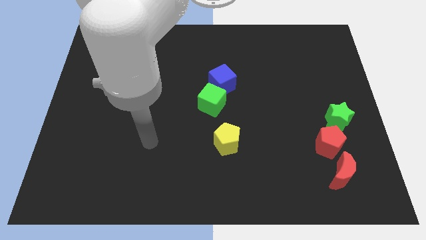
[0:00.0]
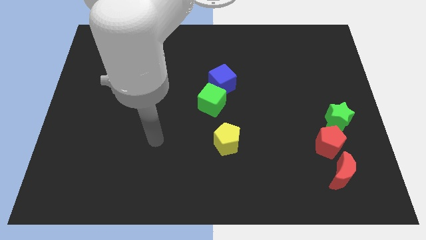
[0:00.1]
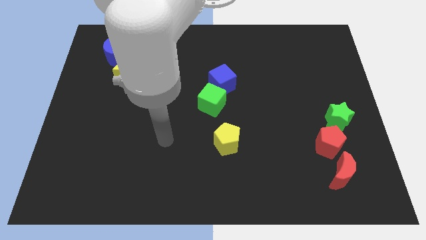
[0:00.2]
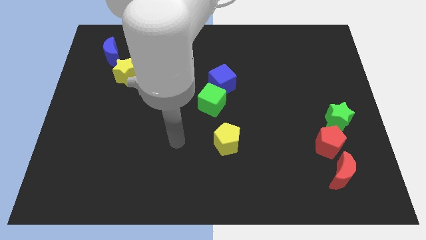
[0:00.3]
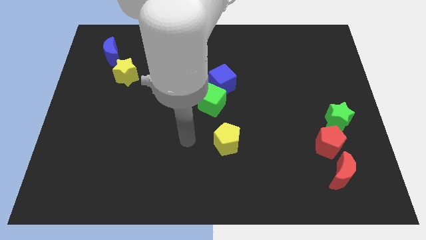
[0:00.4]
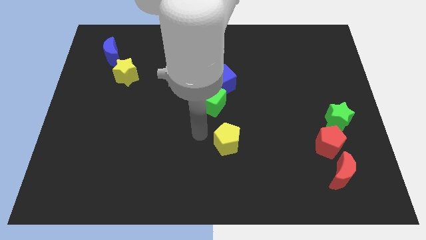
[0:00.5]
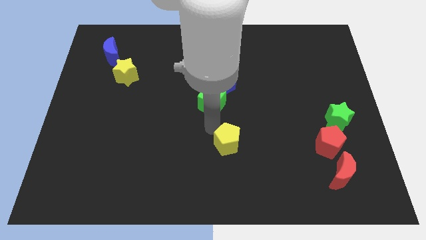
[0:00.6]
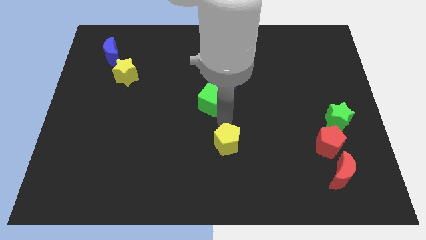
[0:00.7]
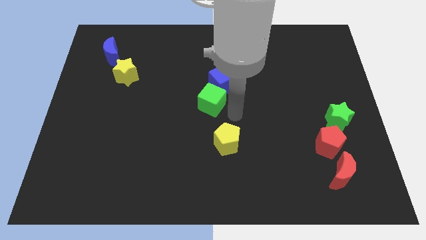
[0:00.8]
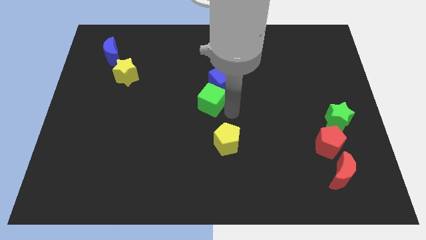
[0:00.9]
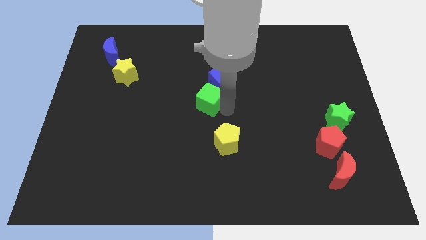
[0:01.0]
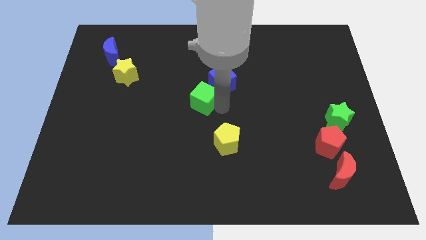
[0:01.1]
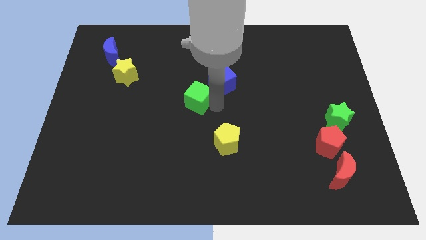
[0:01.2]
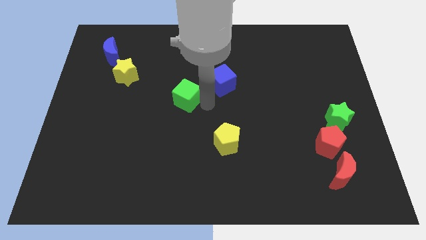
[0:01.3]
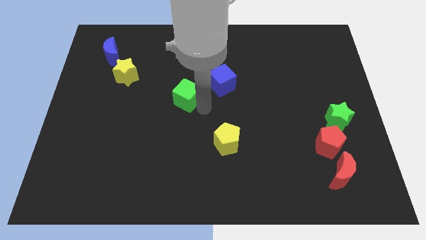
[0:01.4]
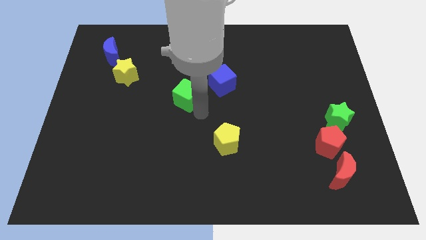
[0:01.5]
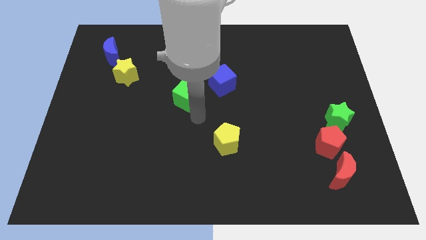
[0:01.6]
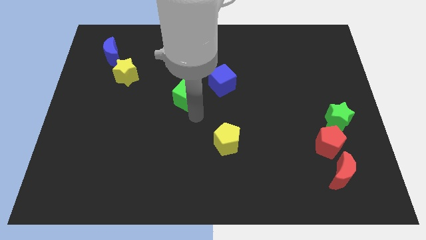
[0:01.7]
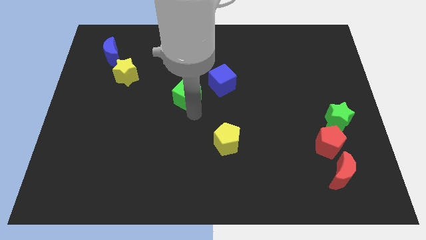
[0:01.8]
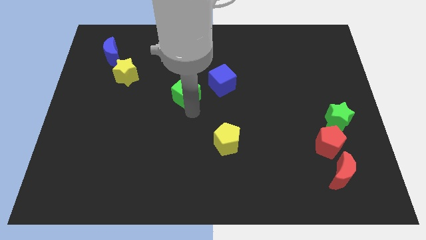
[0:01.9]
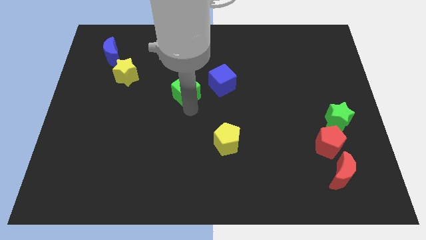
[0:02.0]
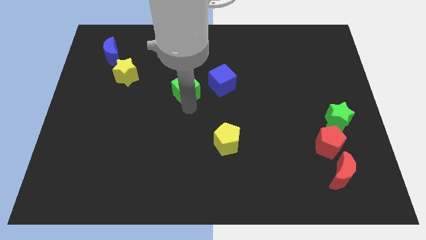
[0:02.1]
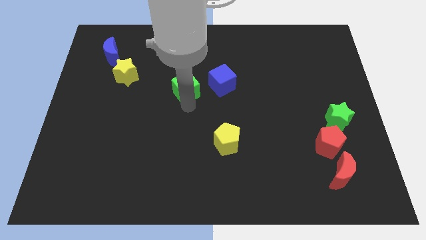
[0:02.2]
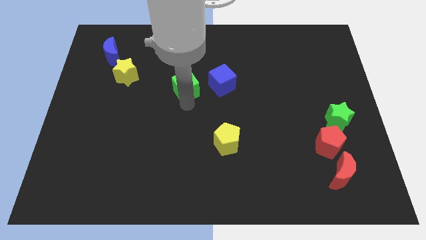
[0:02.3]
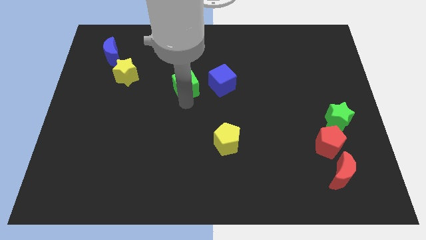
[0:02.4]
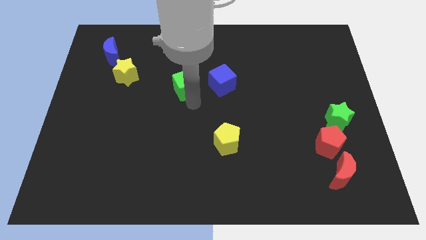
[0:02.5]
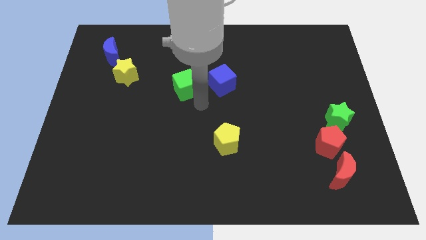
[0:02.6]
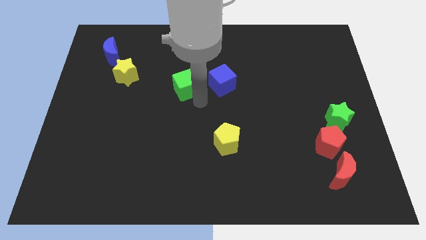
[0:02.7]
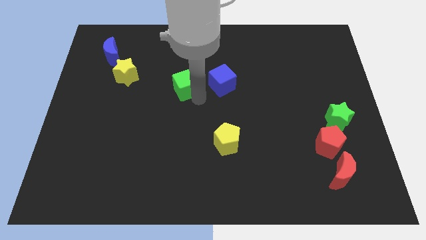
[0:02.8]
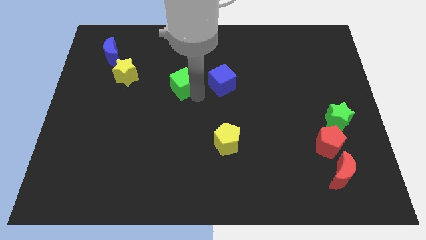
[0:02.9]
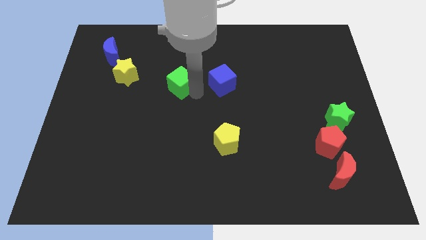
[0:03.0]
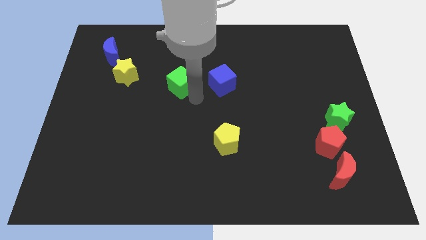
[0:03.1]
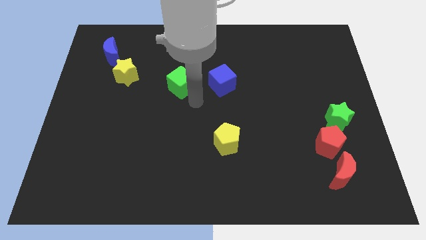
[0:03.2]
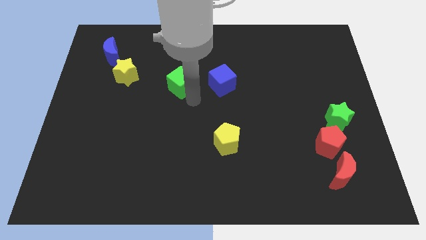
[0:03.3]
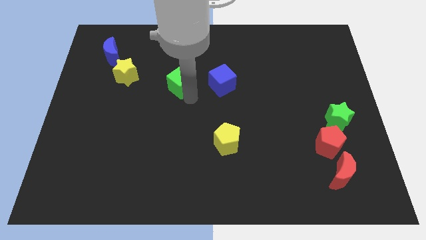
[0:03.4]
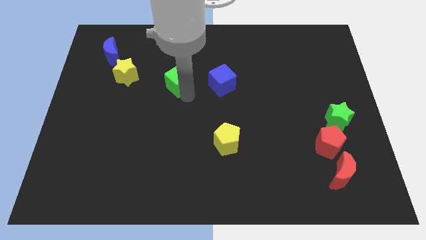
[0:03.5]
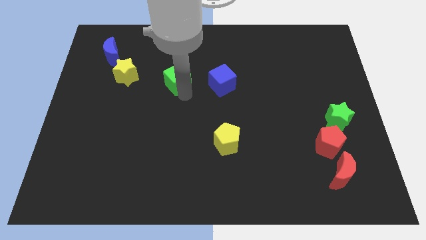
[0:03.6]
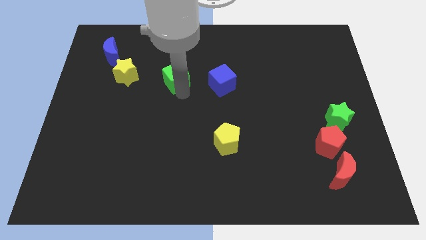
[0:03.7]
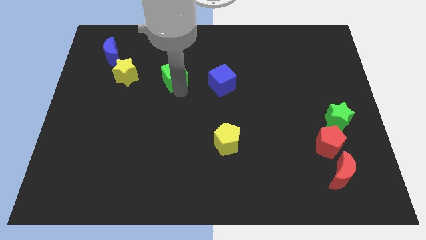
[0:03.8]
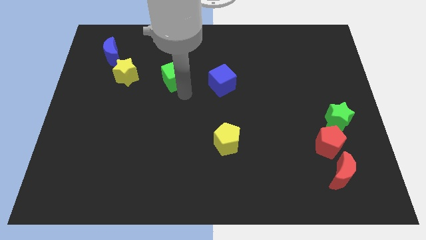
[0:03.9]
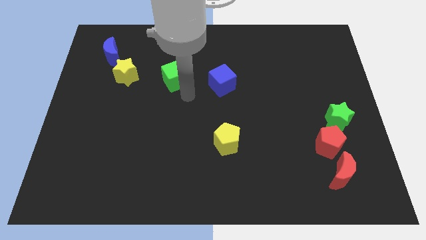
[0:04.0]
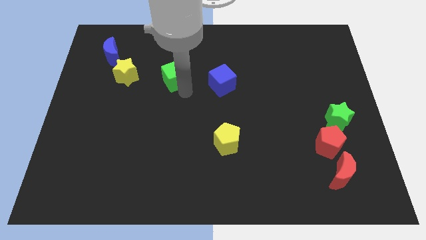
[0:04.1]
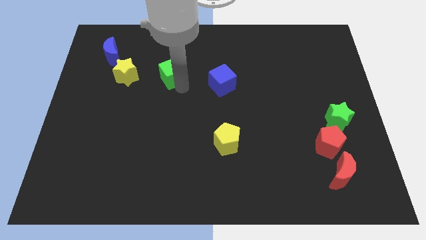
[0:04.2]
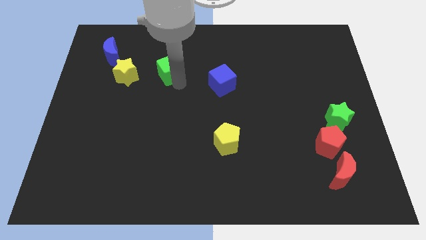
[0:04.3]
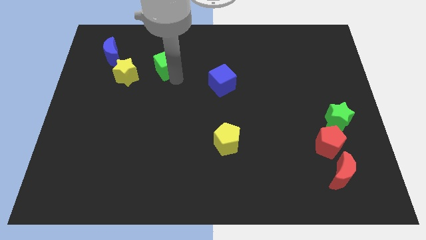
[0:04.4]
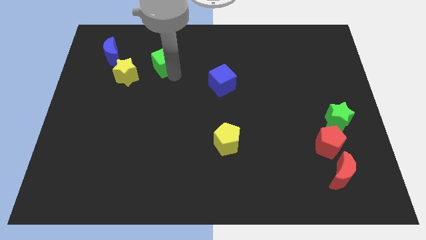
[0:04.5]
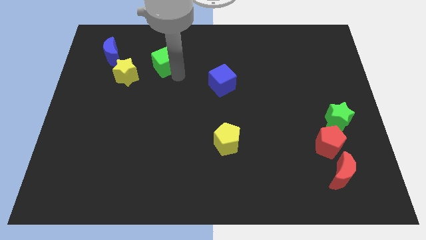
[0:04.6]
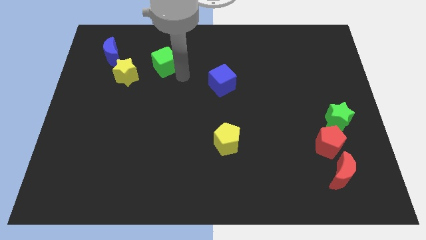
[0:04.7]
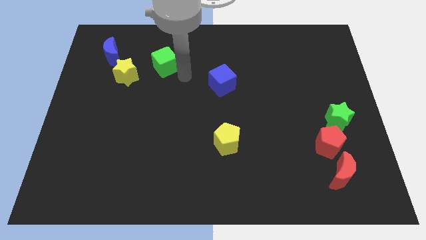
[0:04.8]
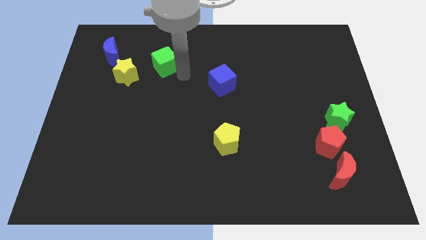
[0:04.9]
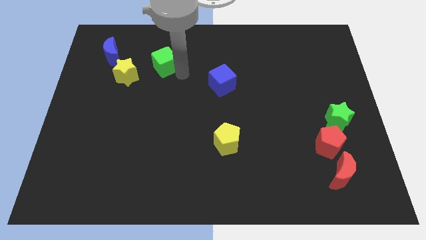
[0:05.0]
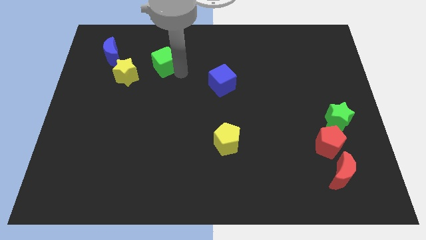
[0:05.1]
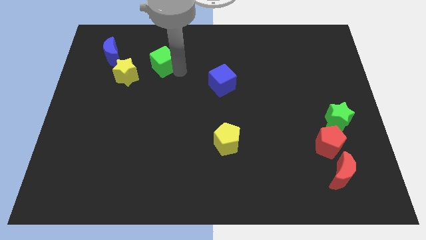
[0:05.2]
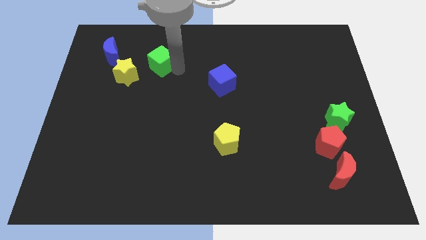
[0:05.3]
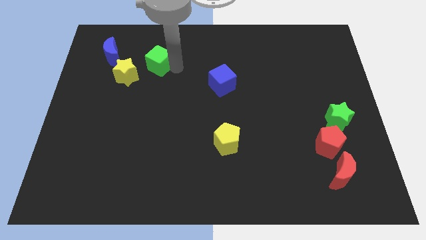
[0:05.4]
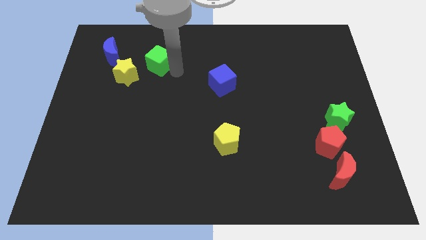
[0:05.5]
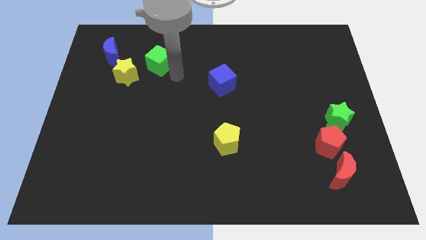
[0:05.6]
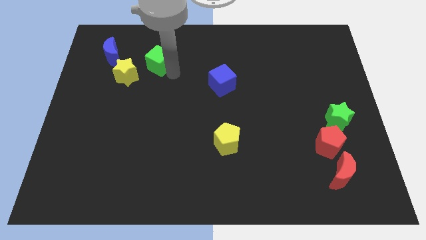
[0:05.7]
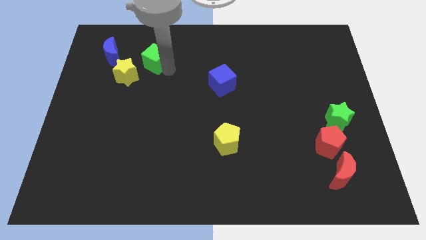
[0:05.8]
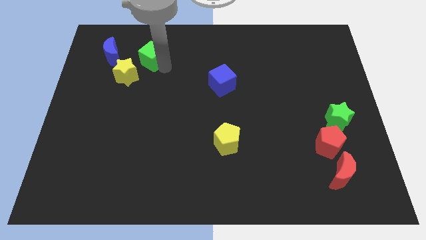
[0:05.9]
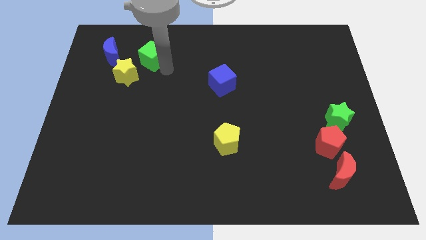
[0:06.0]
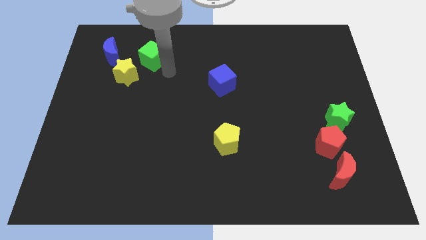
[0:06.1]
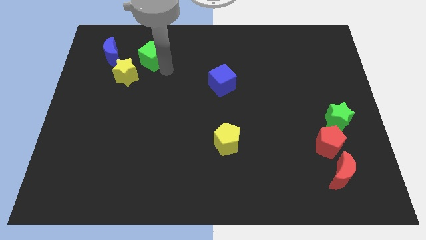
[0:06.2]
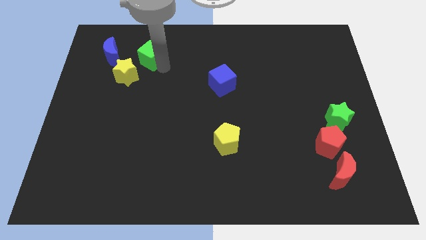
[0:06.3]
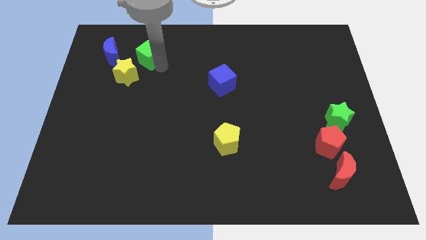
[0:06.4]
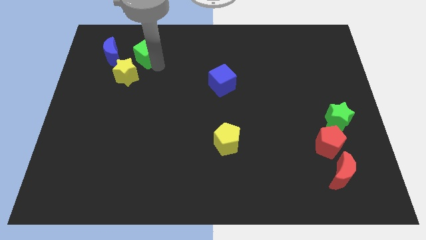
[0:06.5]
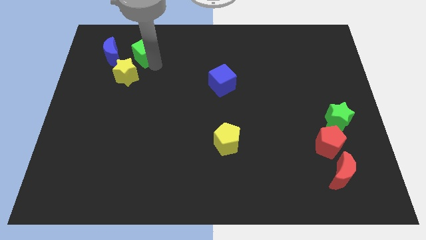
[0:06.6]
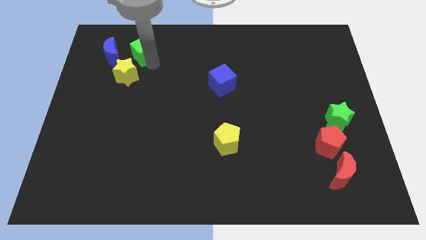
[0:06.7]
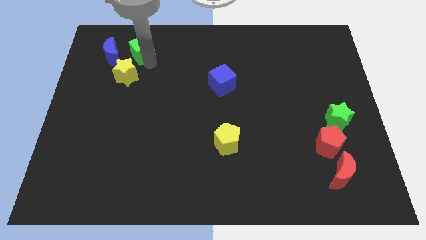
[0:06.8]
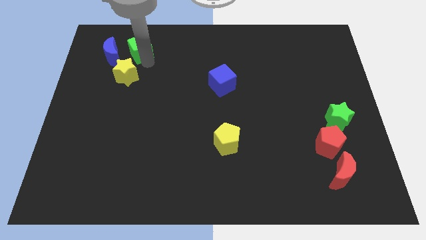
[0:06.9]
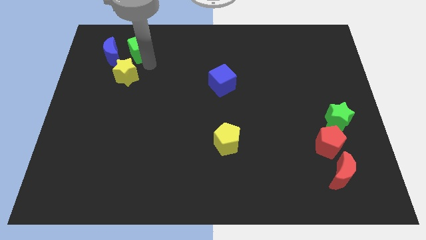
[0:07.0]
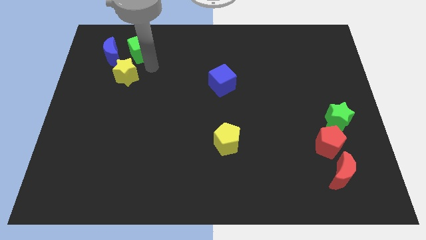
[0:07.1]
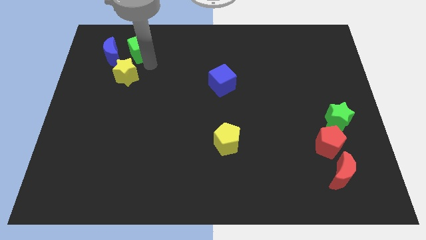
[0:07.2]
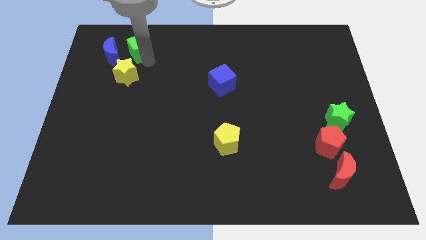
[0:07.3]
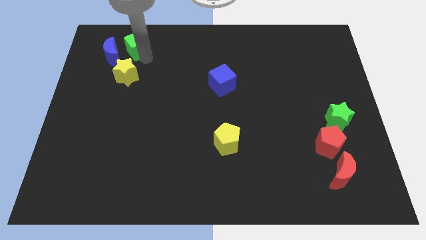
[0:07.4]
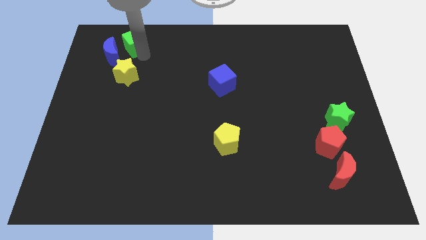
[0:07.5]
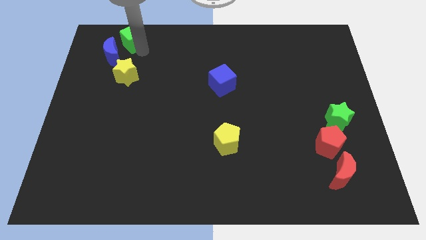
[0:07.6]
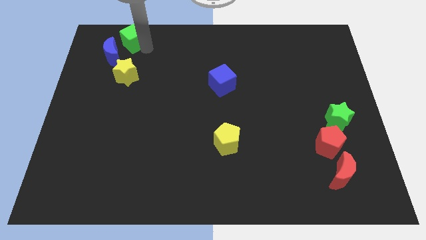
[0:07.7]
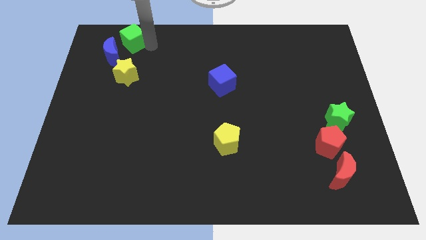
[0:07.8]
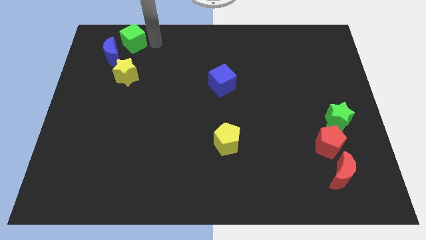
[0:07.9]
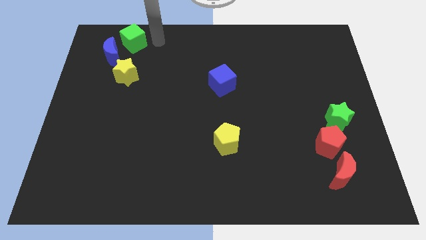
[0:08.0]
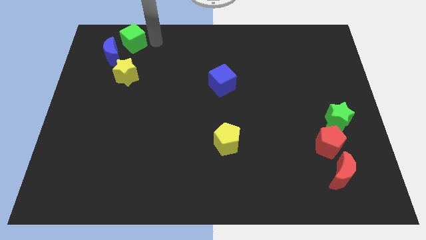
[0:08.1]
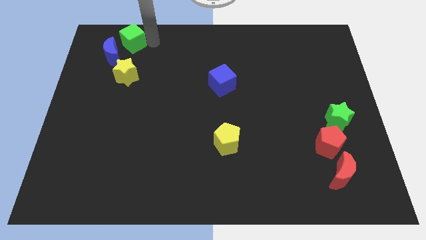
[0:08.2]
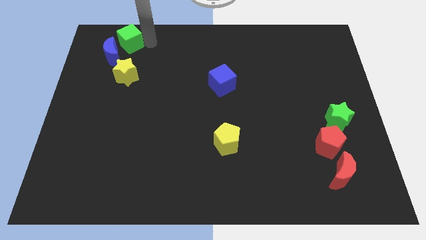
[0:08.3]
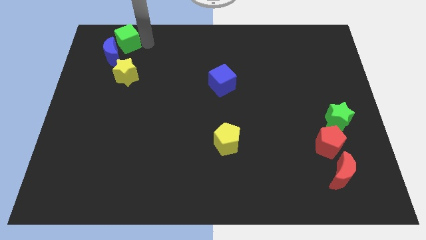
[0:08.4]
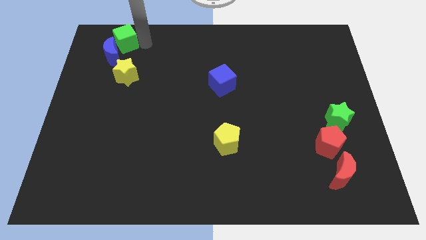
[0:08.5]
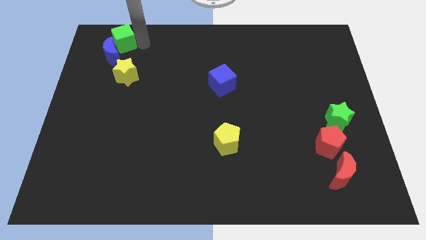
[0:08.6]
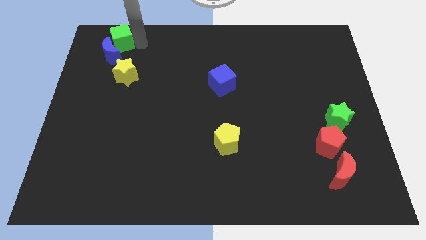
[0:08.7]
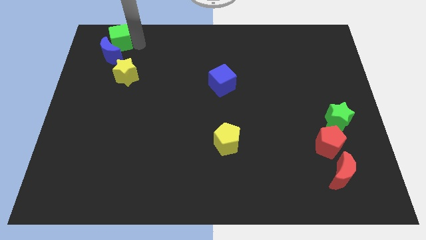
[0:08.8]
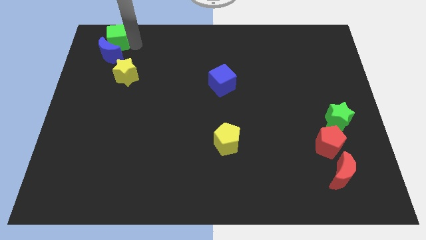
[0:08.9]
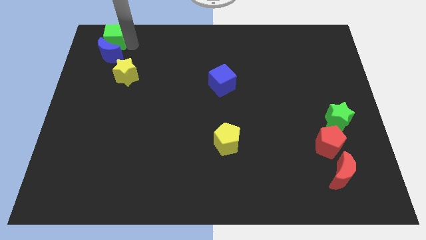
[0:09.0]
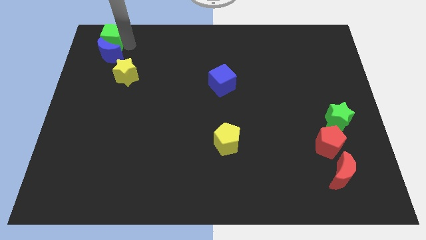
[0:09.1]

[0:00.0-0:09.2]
slide the green cube to the upper left corner
